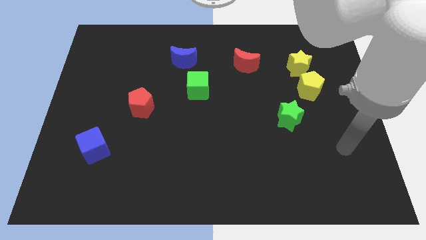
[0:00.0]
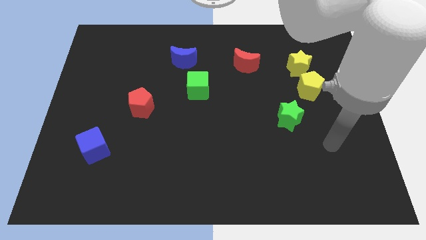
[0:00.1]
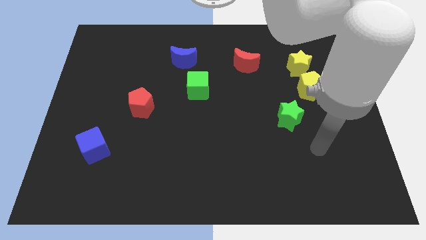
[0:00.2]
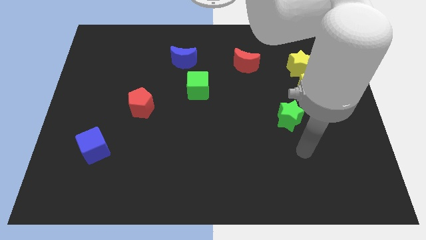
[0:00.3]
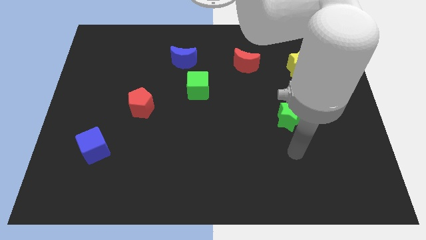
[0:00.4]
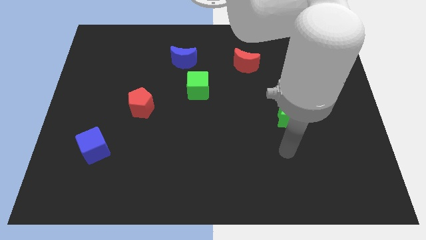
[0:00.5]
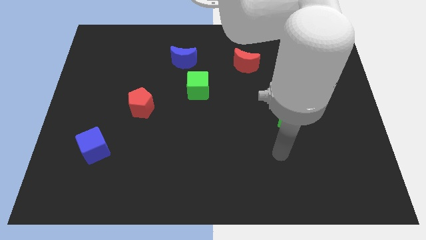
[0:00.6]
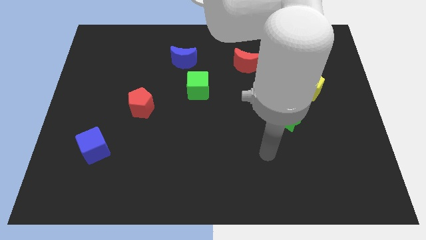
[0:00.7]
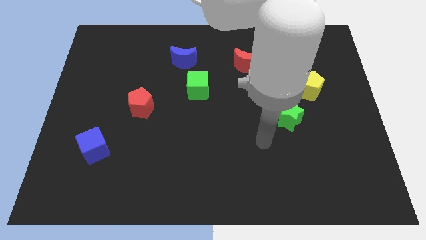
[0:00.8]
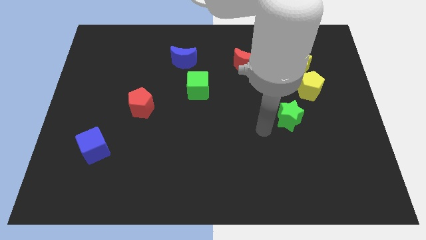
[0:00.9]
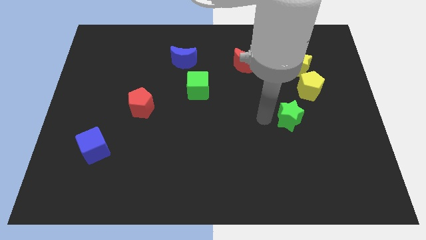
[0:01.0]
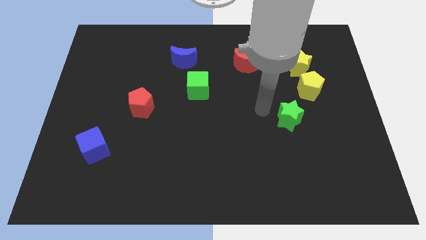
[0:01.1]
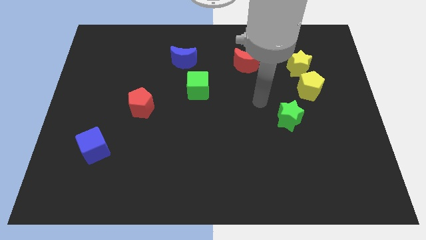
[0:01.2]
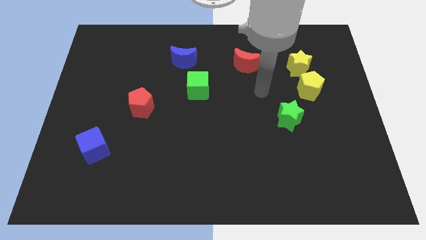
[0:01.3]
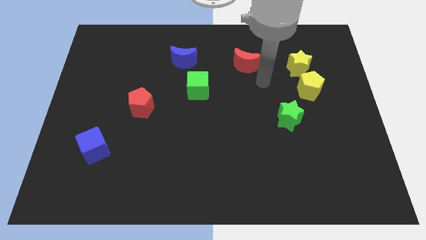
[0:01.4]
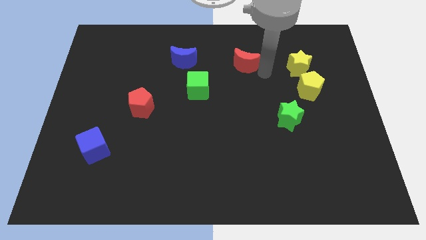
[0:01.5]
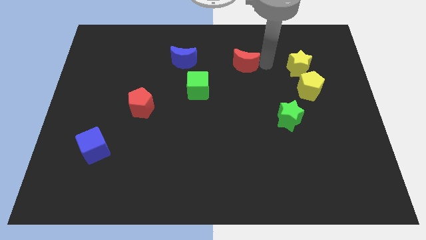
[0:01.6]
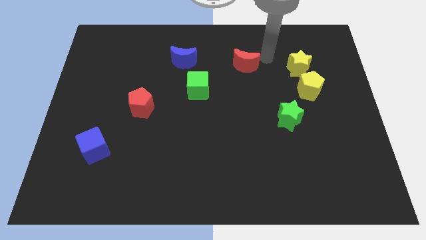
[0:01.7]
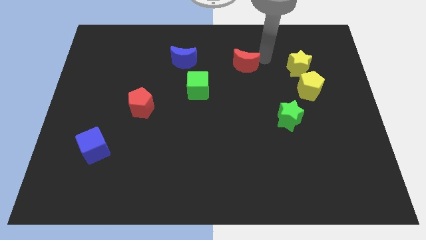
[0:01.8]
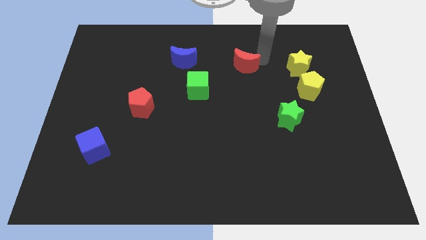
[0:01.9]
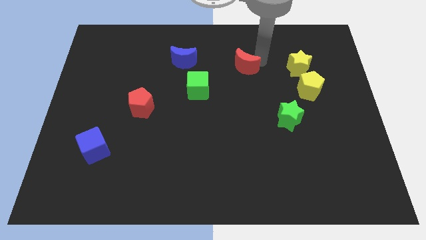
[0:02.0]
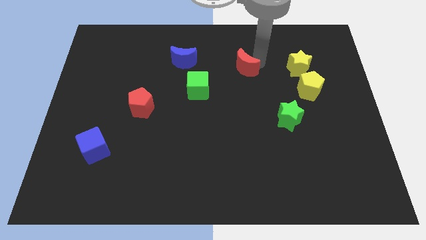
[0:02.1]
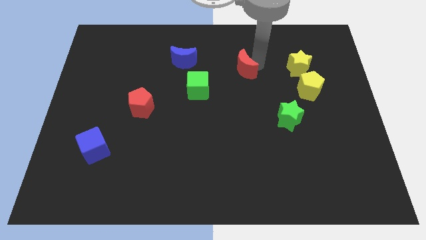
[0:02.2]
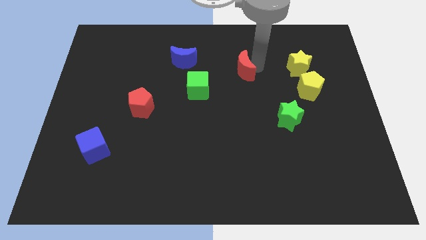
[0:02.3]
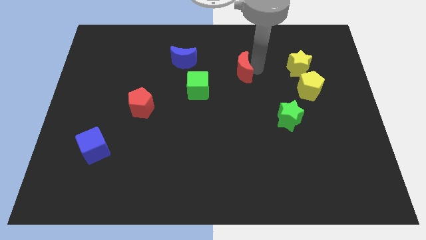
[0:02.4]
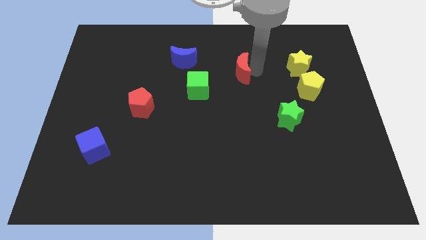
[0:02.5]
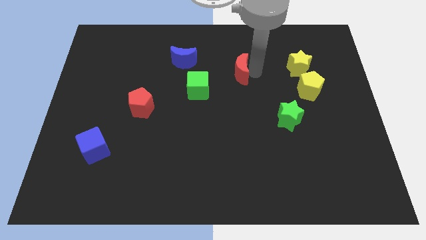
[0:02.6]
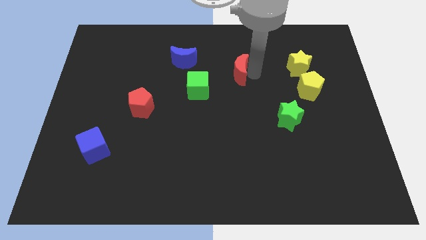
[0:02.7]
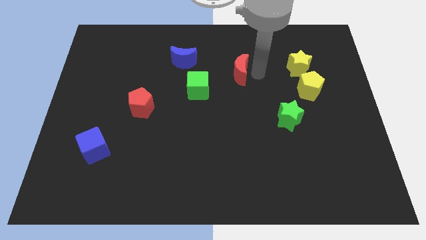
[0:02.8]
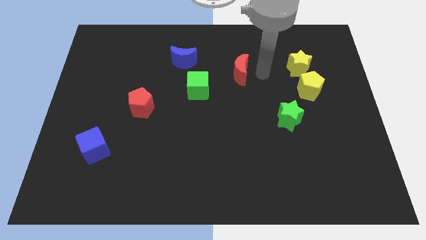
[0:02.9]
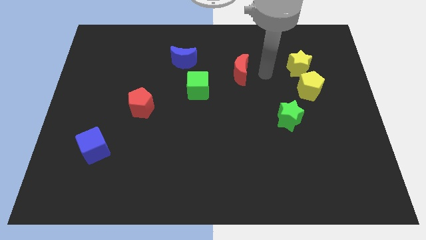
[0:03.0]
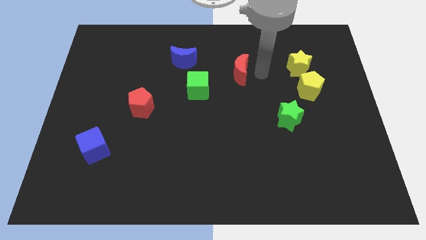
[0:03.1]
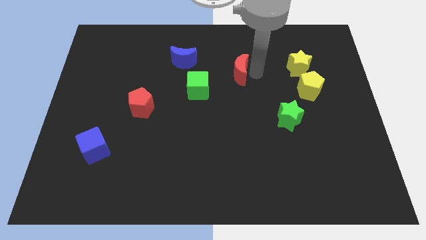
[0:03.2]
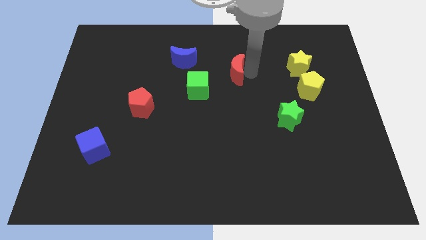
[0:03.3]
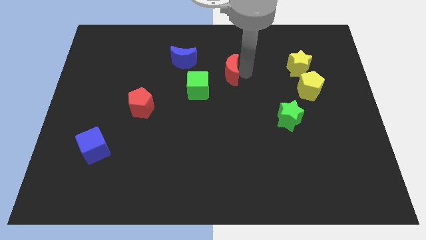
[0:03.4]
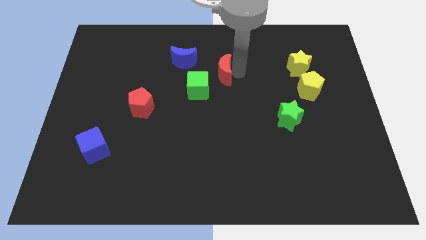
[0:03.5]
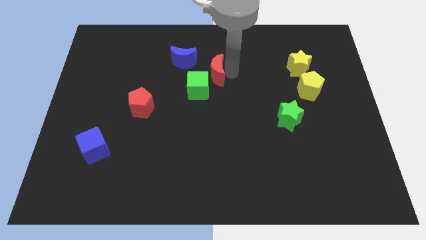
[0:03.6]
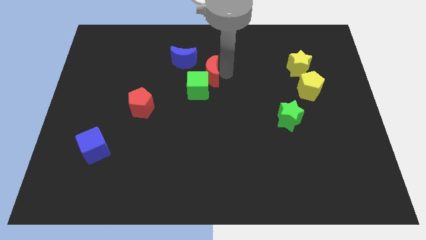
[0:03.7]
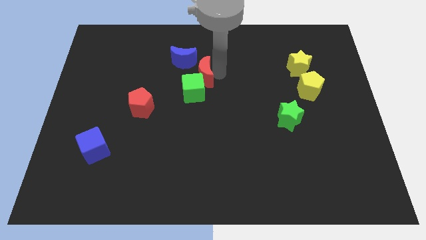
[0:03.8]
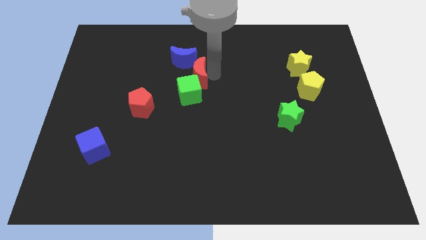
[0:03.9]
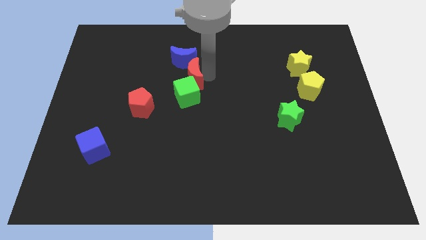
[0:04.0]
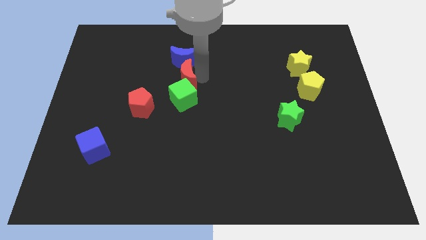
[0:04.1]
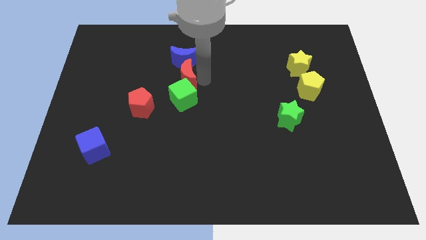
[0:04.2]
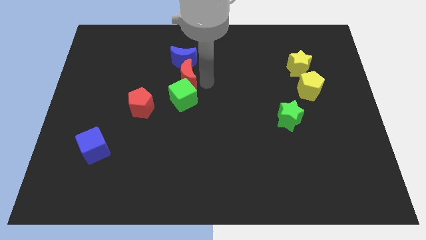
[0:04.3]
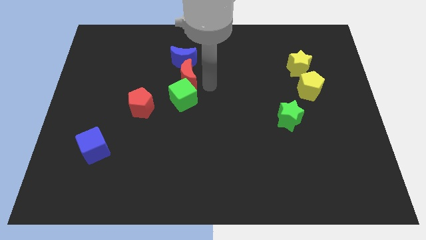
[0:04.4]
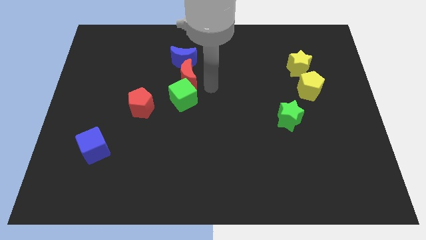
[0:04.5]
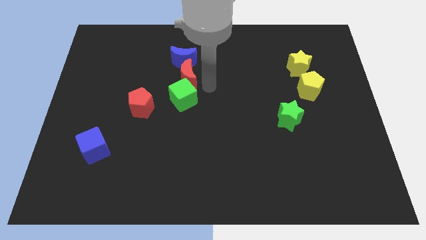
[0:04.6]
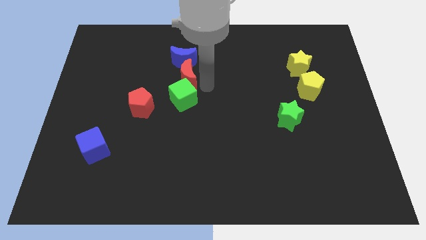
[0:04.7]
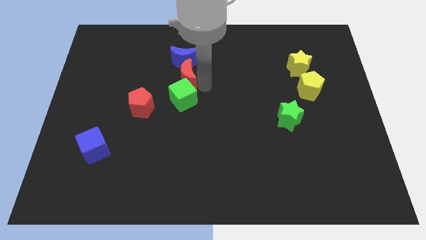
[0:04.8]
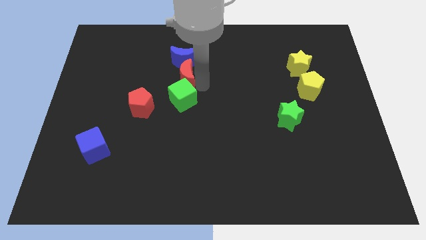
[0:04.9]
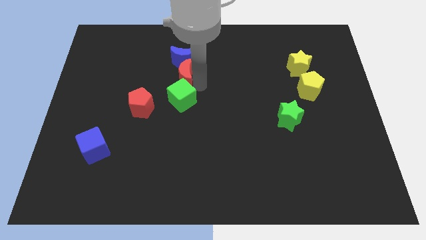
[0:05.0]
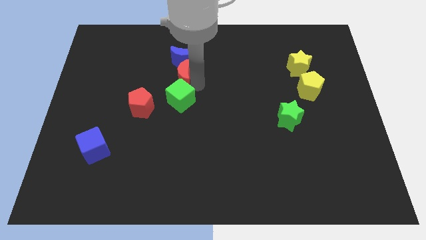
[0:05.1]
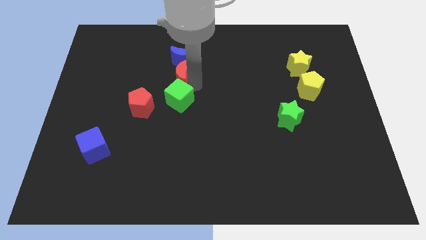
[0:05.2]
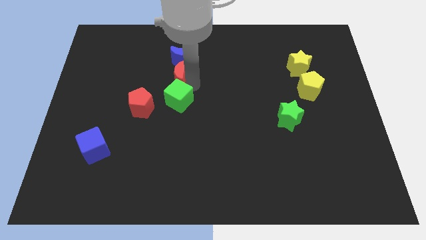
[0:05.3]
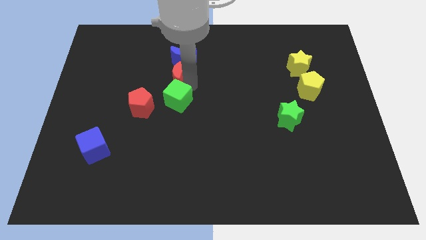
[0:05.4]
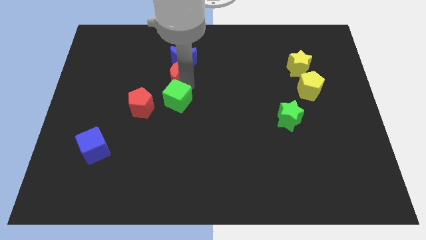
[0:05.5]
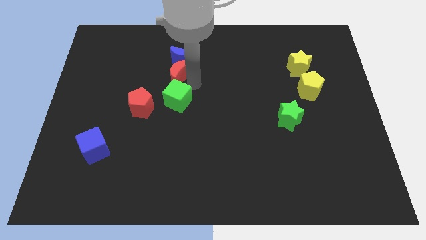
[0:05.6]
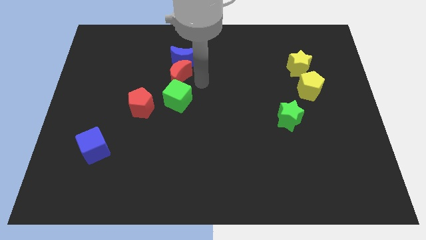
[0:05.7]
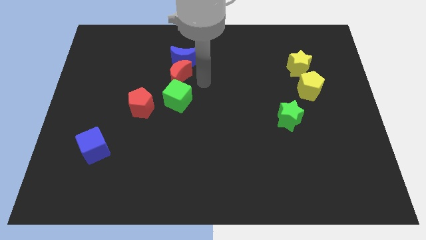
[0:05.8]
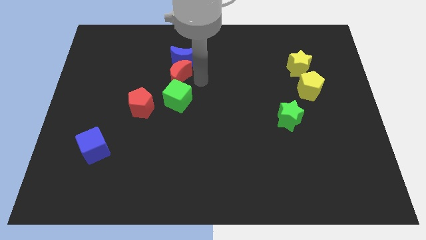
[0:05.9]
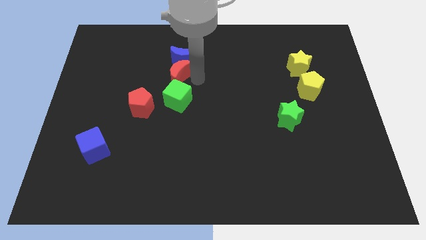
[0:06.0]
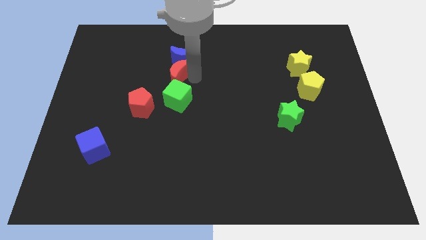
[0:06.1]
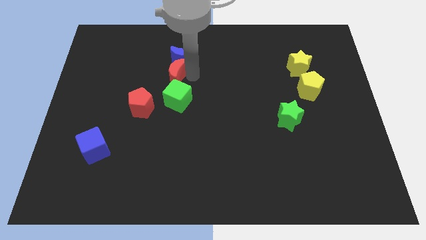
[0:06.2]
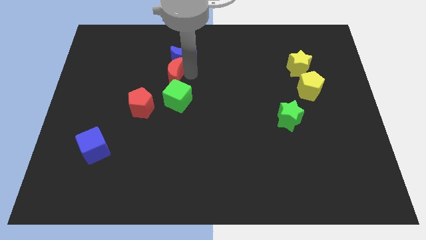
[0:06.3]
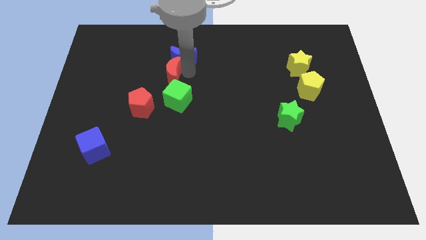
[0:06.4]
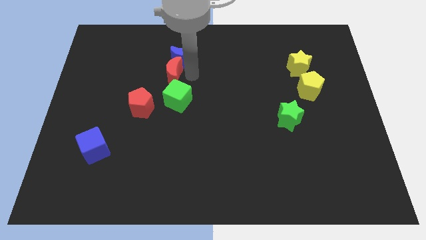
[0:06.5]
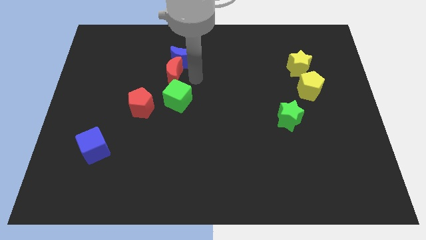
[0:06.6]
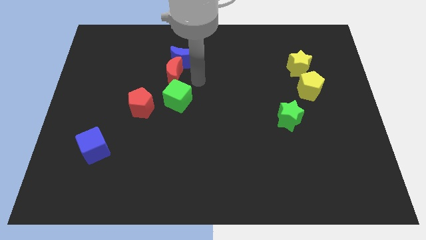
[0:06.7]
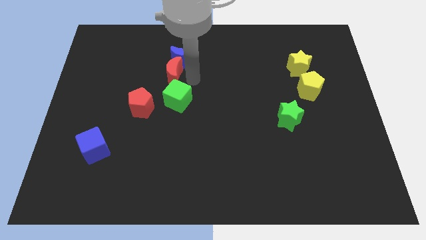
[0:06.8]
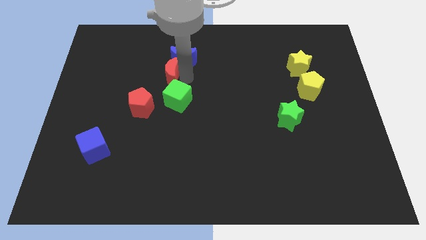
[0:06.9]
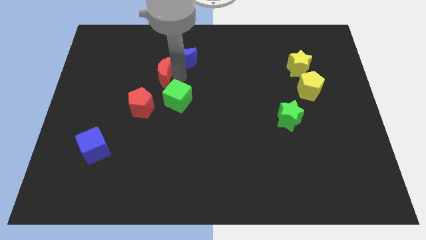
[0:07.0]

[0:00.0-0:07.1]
slide the red moon left

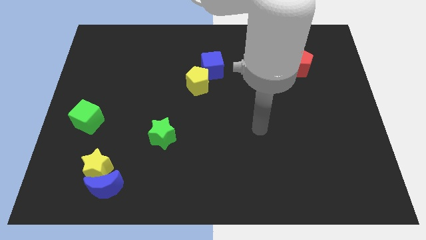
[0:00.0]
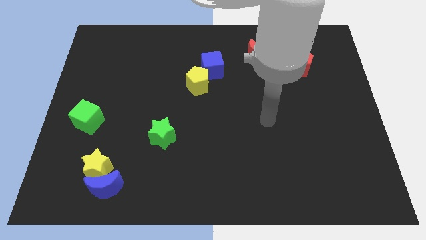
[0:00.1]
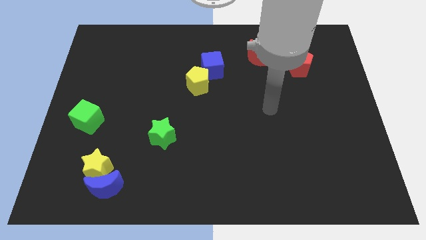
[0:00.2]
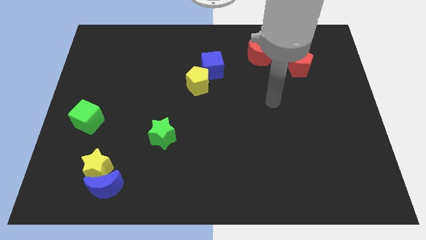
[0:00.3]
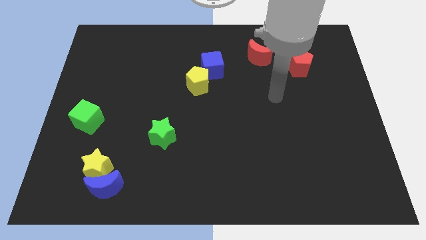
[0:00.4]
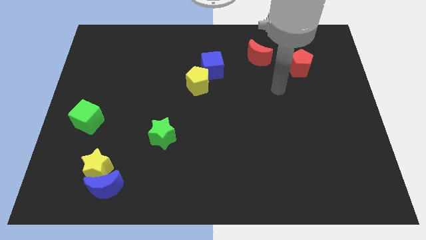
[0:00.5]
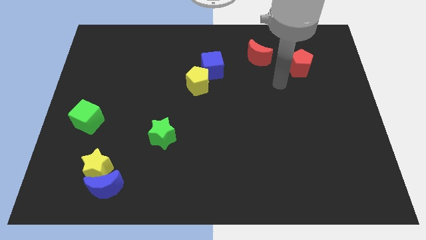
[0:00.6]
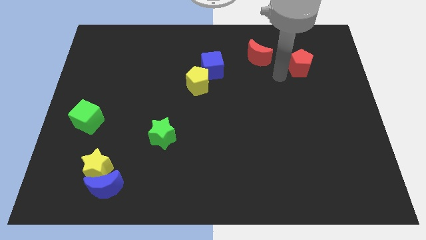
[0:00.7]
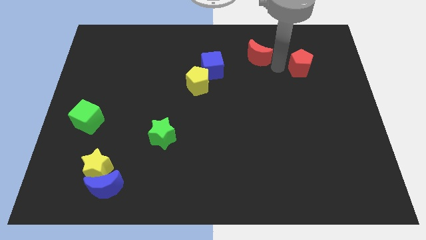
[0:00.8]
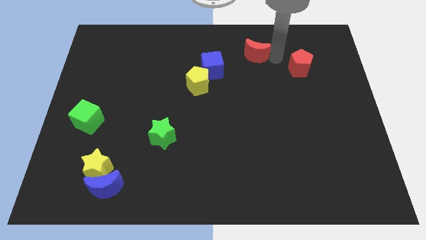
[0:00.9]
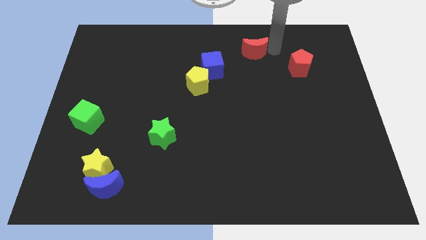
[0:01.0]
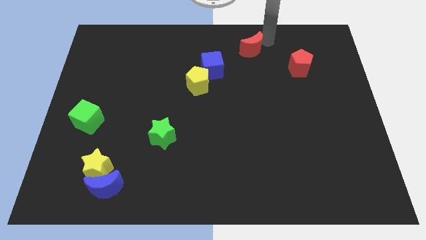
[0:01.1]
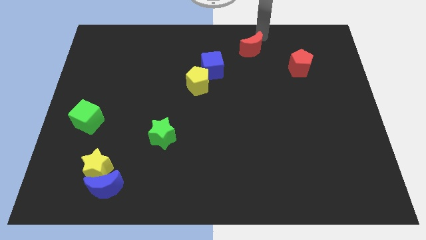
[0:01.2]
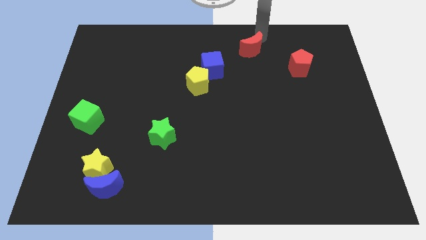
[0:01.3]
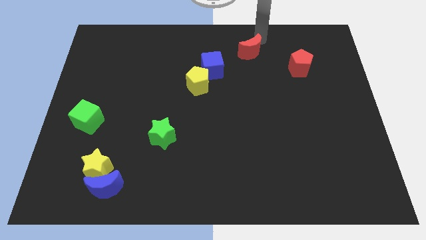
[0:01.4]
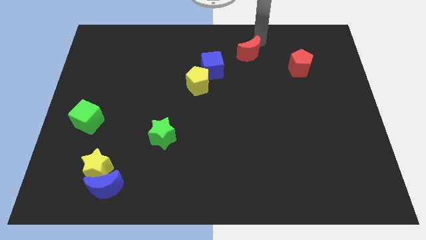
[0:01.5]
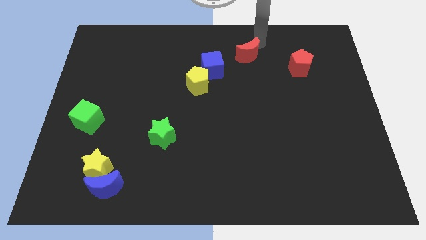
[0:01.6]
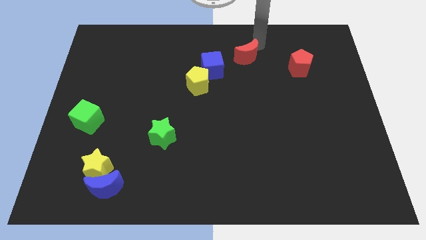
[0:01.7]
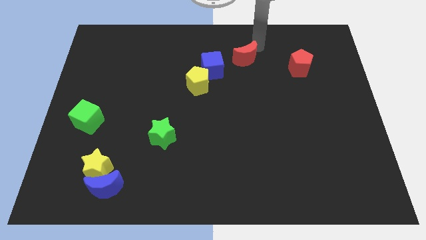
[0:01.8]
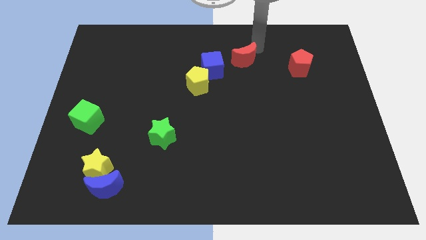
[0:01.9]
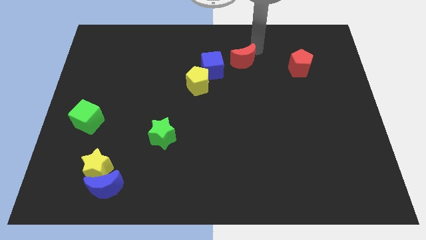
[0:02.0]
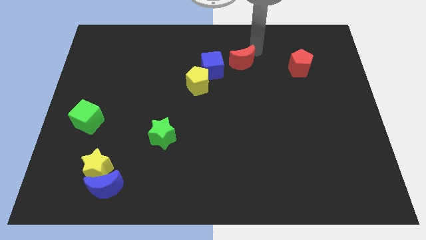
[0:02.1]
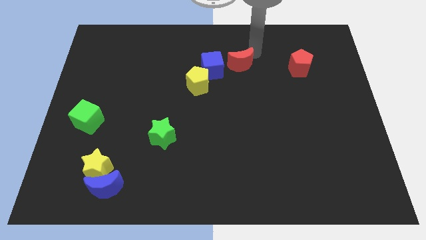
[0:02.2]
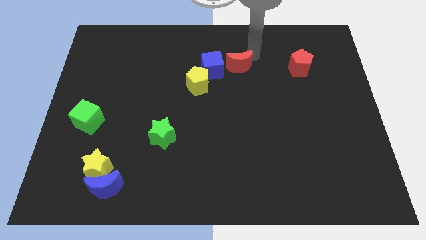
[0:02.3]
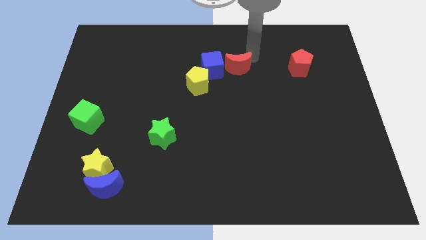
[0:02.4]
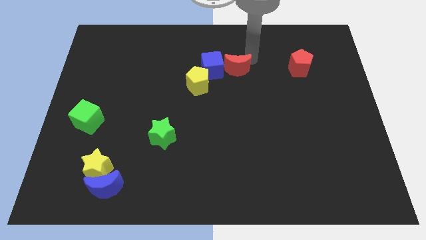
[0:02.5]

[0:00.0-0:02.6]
slide the red moon a little downwards and to the left
